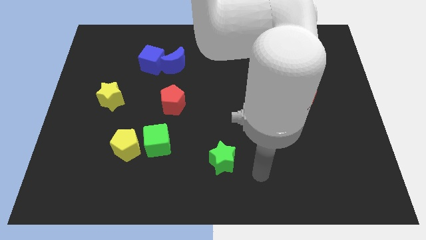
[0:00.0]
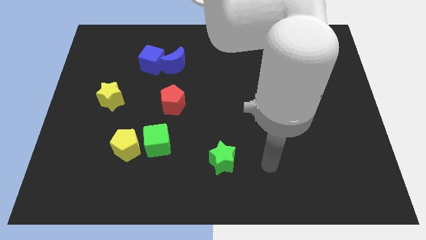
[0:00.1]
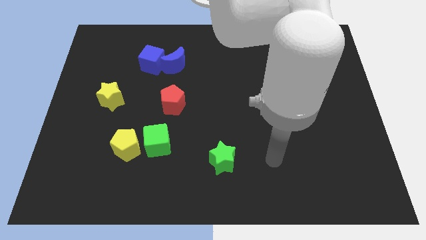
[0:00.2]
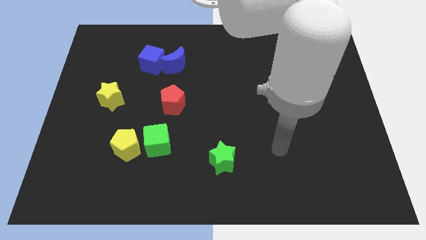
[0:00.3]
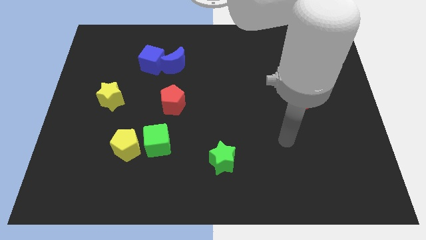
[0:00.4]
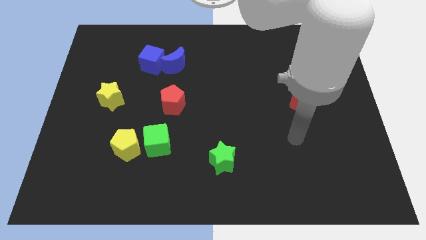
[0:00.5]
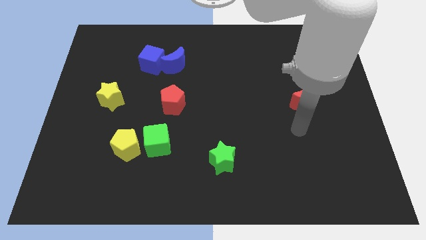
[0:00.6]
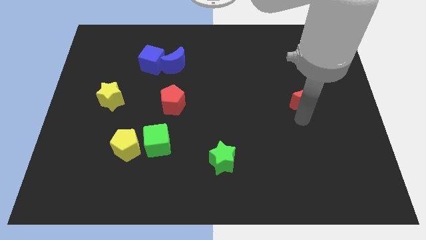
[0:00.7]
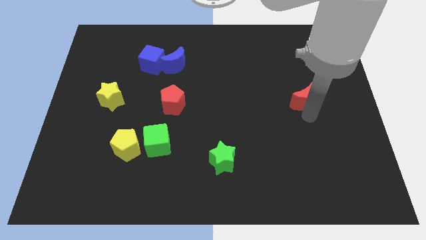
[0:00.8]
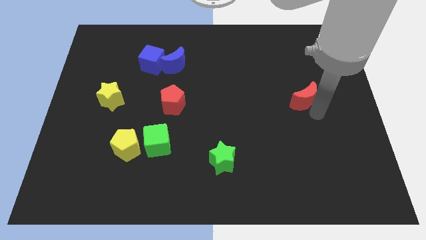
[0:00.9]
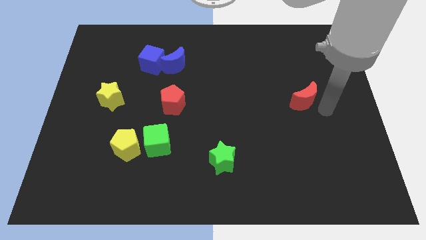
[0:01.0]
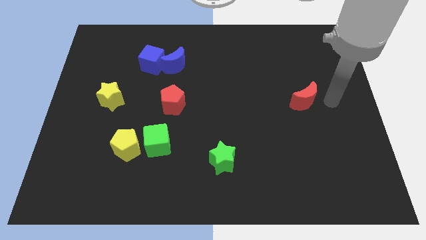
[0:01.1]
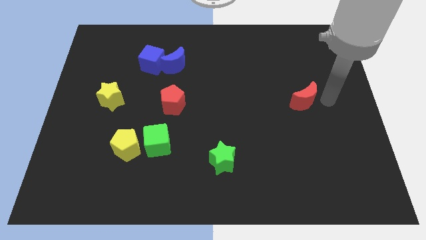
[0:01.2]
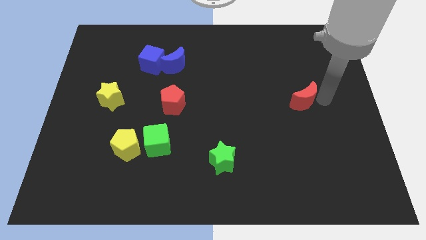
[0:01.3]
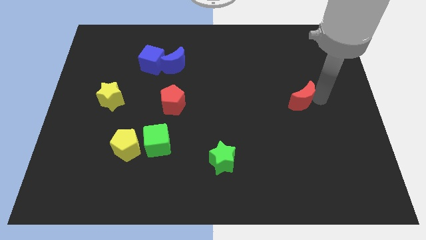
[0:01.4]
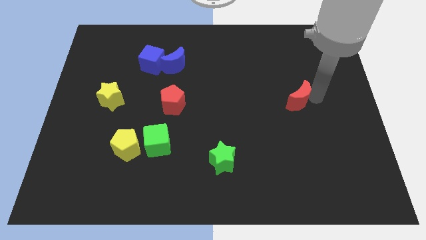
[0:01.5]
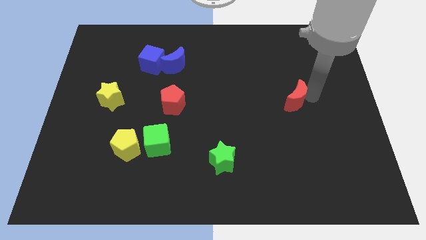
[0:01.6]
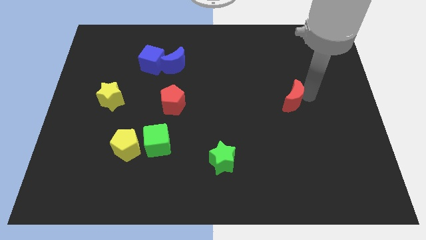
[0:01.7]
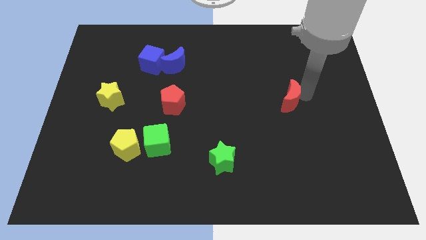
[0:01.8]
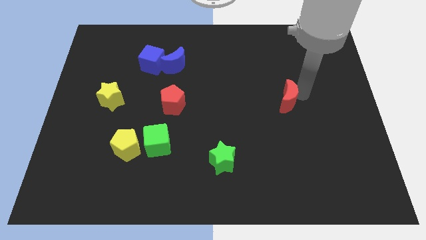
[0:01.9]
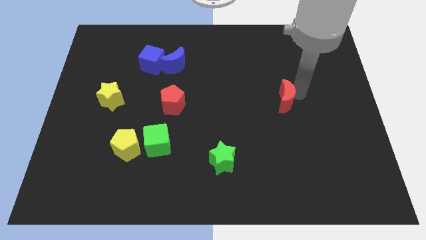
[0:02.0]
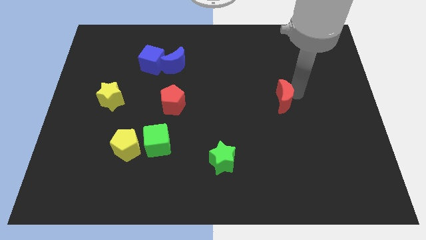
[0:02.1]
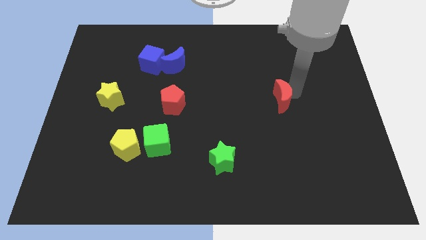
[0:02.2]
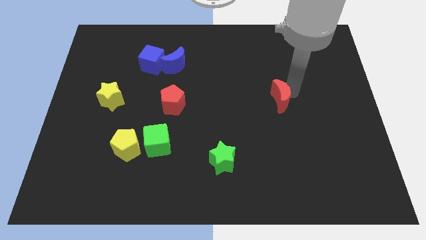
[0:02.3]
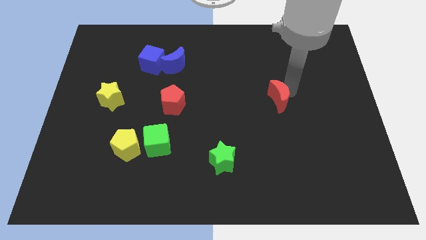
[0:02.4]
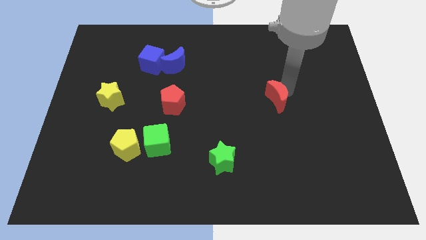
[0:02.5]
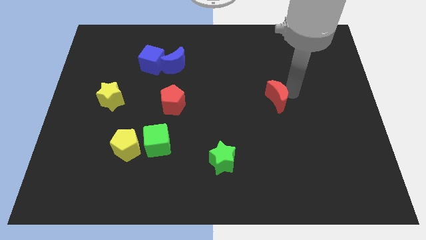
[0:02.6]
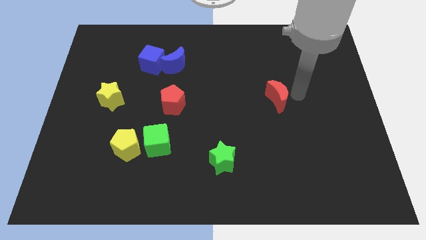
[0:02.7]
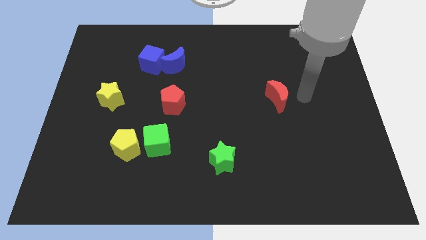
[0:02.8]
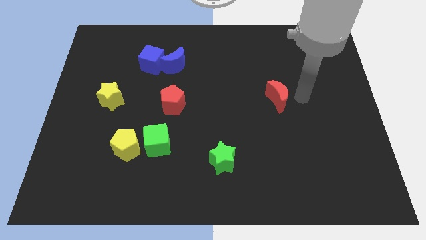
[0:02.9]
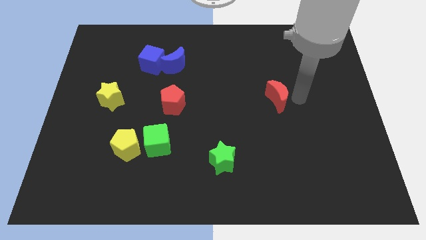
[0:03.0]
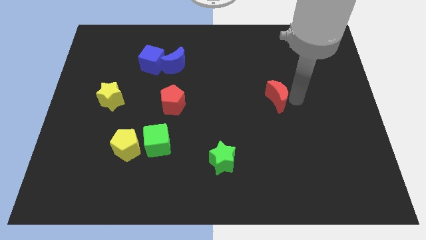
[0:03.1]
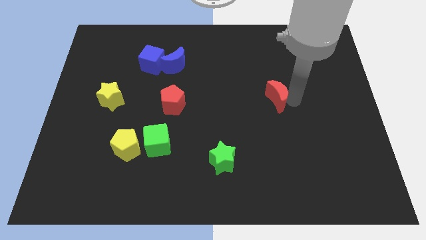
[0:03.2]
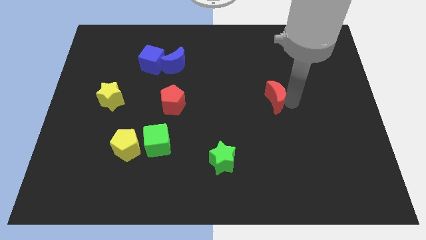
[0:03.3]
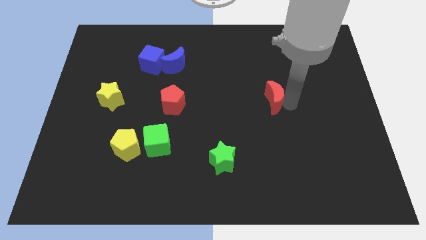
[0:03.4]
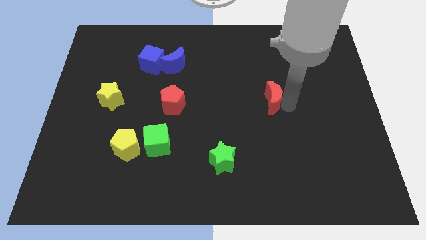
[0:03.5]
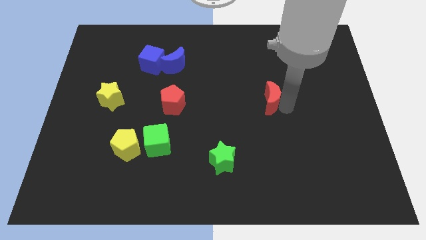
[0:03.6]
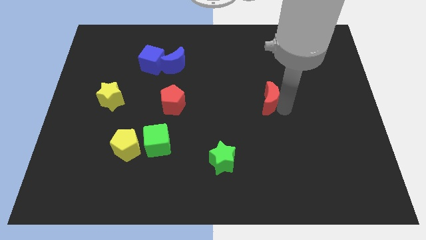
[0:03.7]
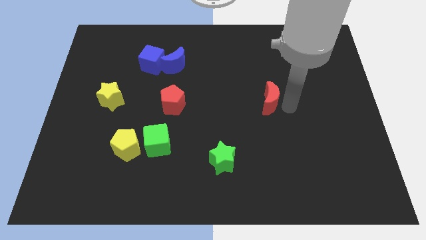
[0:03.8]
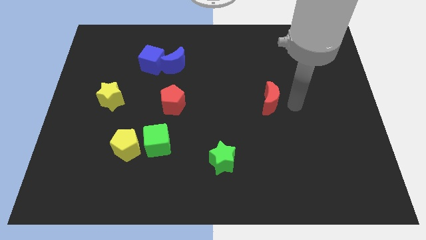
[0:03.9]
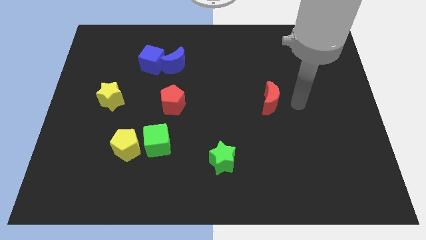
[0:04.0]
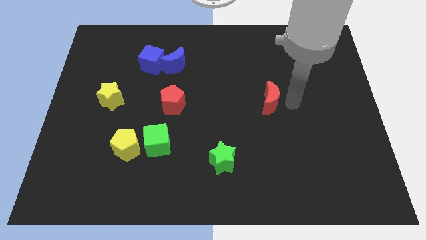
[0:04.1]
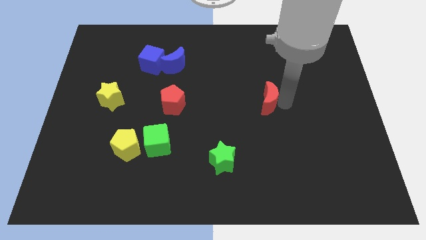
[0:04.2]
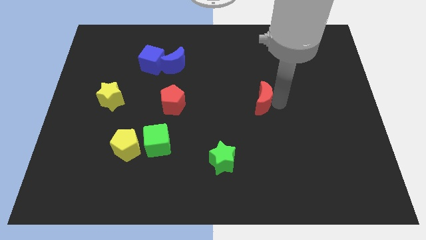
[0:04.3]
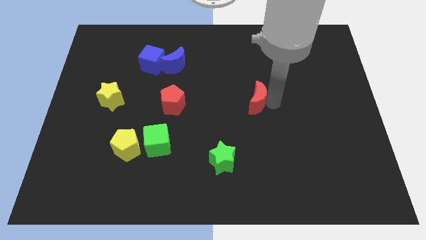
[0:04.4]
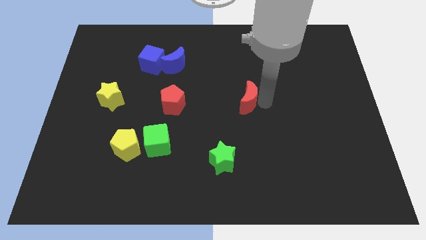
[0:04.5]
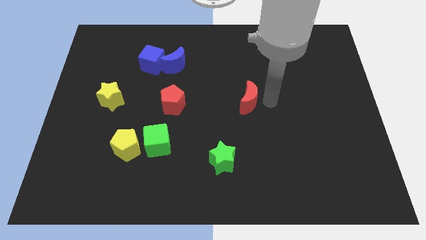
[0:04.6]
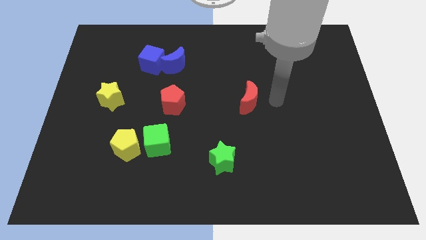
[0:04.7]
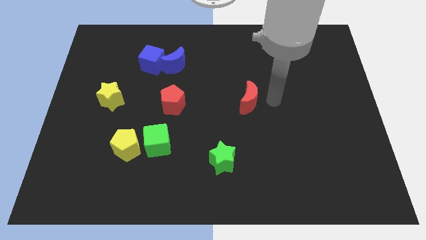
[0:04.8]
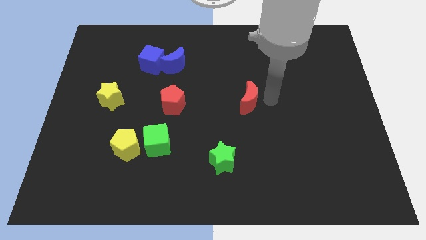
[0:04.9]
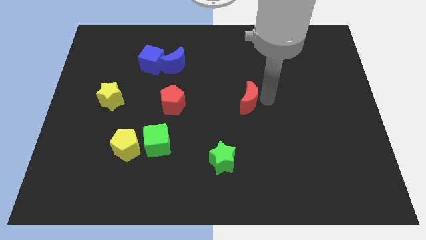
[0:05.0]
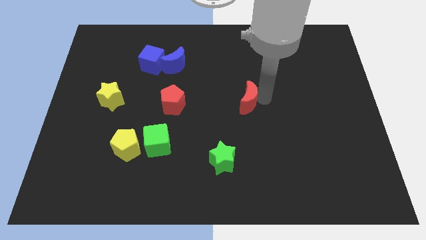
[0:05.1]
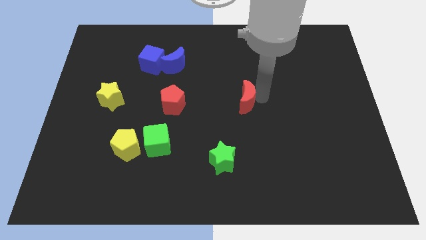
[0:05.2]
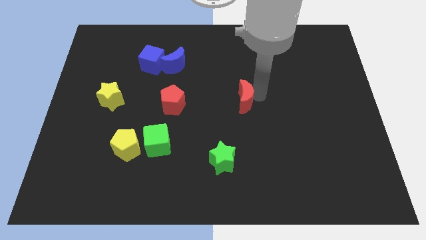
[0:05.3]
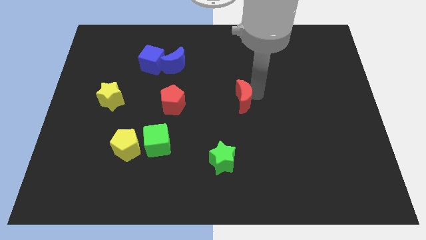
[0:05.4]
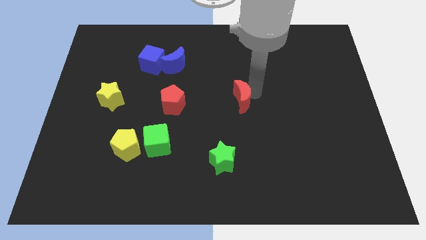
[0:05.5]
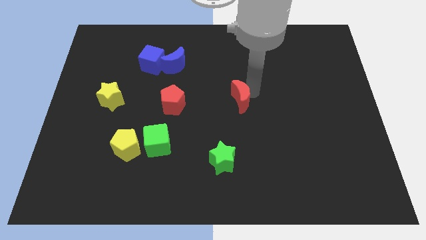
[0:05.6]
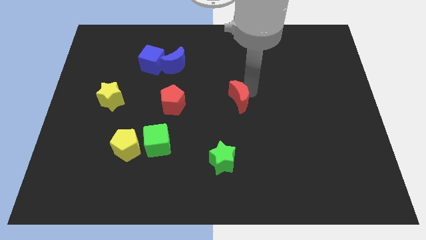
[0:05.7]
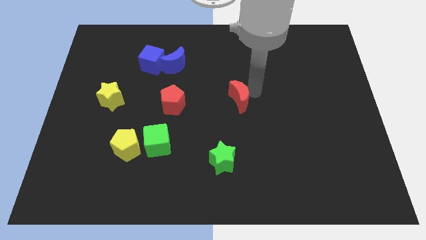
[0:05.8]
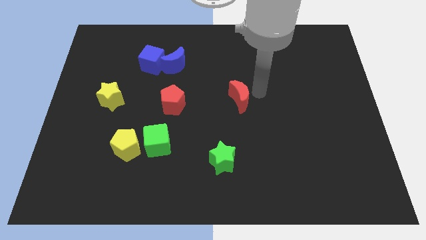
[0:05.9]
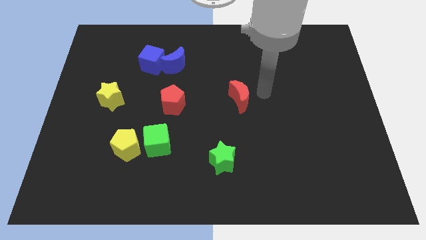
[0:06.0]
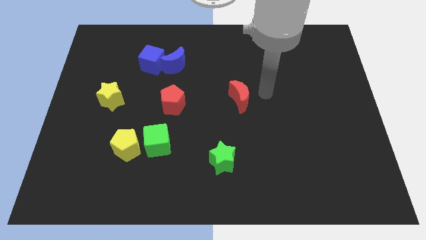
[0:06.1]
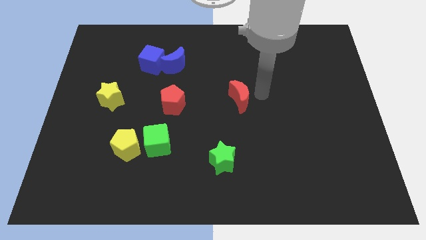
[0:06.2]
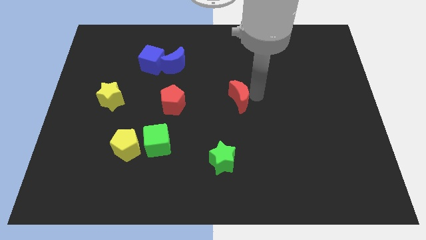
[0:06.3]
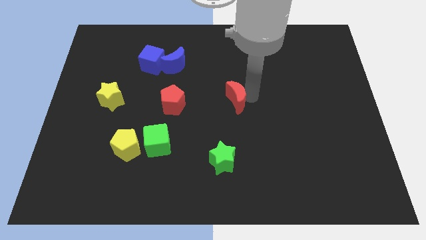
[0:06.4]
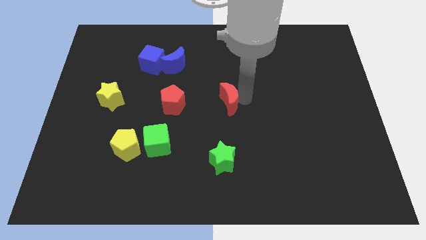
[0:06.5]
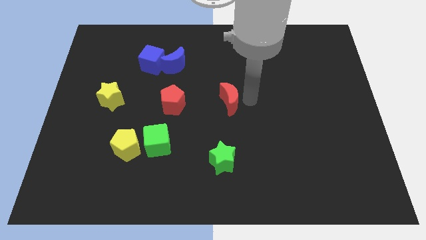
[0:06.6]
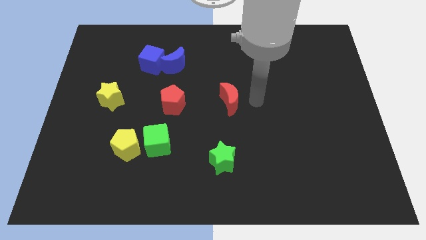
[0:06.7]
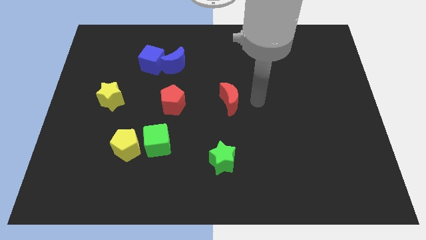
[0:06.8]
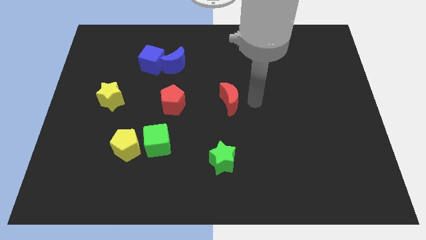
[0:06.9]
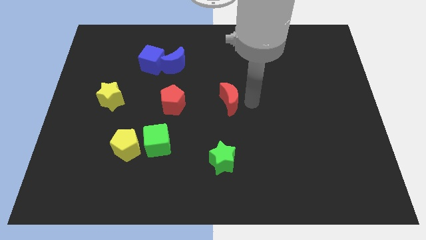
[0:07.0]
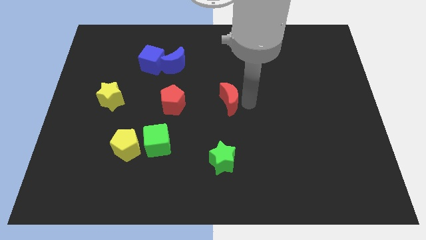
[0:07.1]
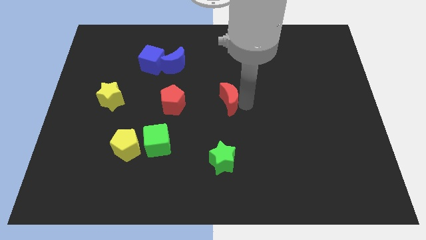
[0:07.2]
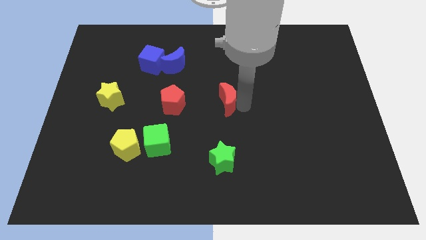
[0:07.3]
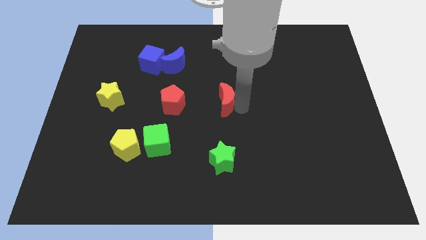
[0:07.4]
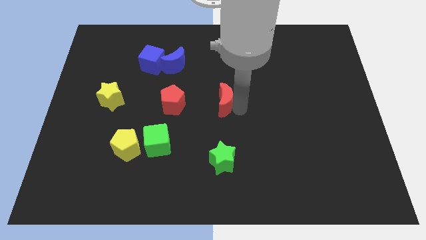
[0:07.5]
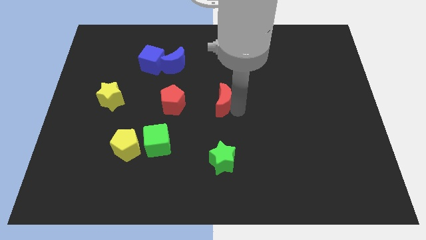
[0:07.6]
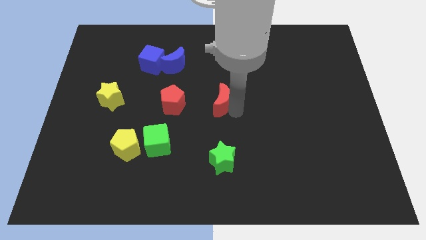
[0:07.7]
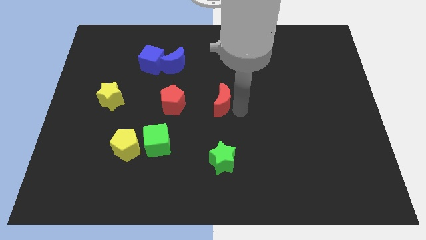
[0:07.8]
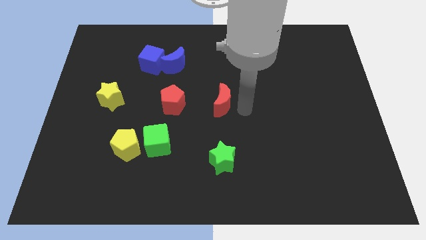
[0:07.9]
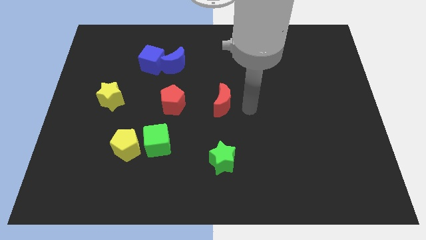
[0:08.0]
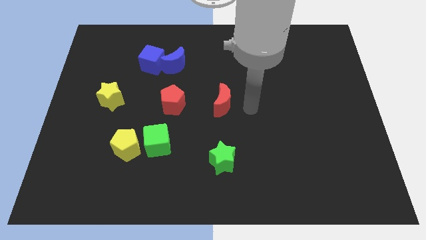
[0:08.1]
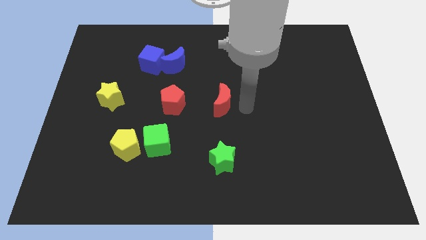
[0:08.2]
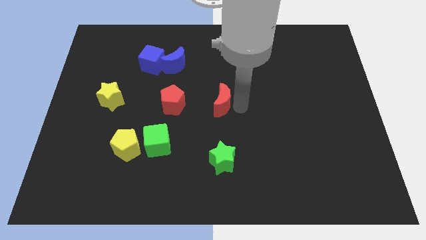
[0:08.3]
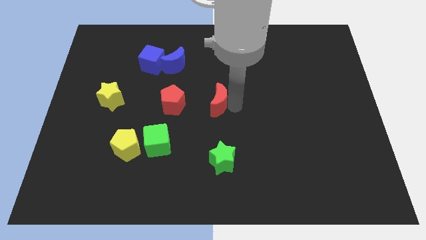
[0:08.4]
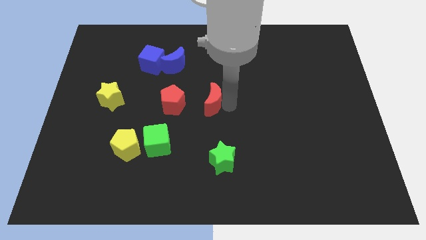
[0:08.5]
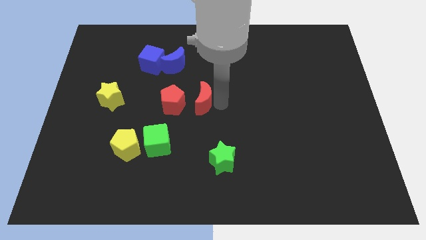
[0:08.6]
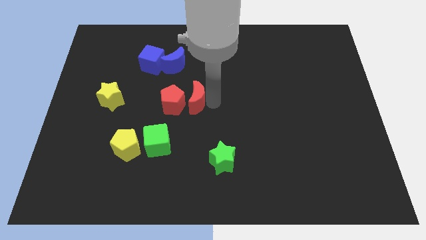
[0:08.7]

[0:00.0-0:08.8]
move the red moon next to the red pentagon
